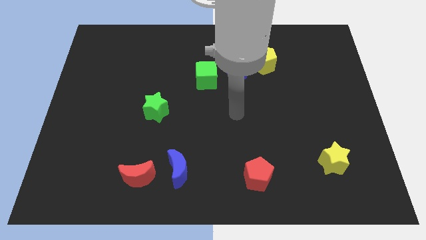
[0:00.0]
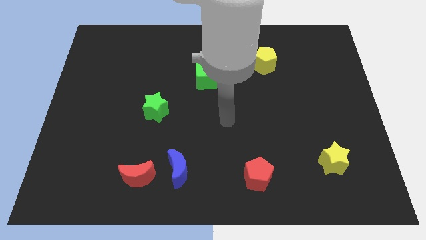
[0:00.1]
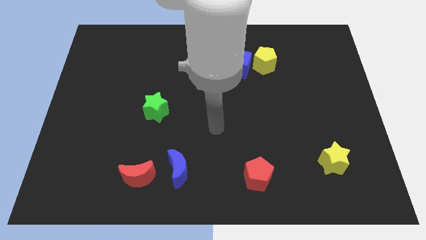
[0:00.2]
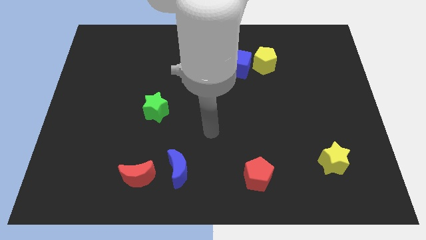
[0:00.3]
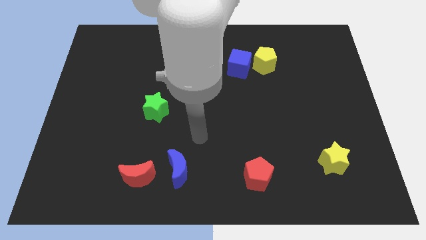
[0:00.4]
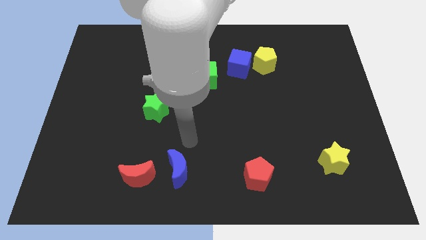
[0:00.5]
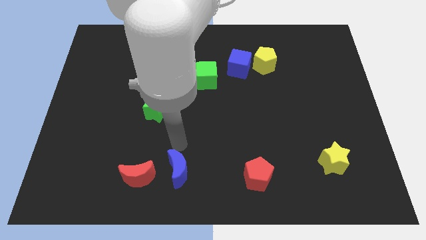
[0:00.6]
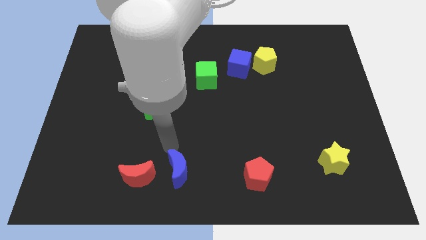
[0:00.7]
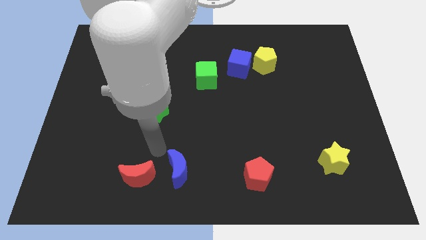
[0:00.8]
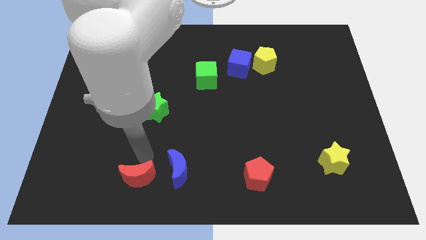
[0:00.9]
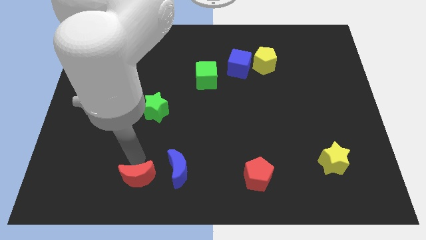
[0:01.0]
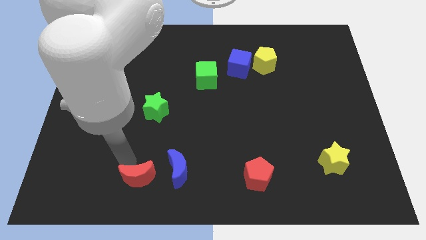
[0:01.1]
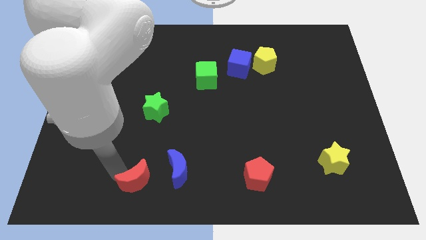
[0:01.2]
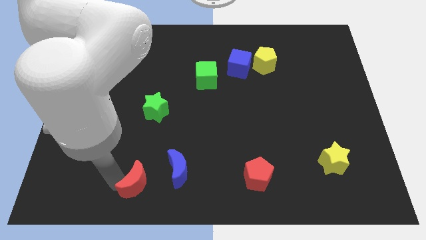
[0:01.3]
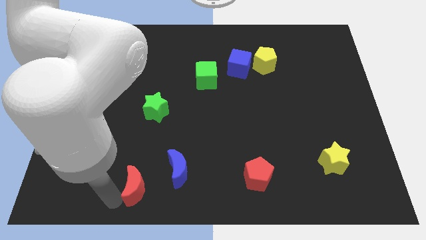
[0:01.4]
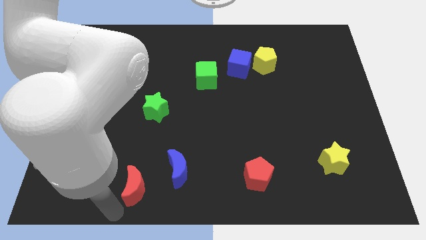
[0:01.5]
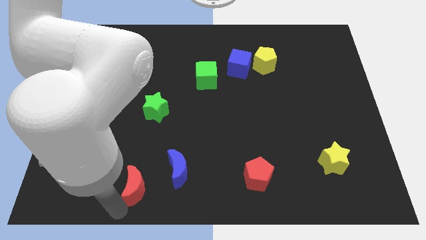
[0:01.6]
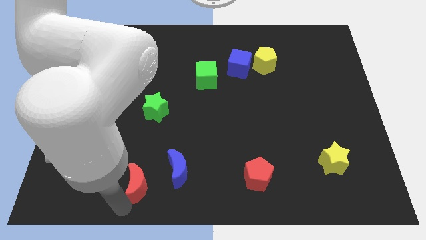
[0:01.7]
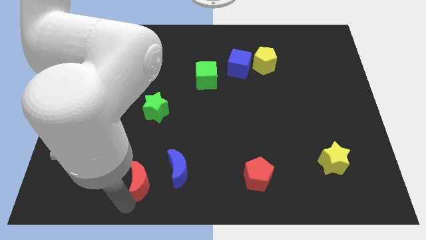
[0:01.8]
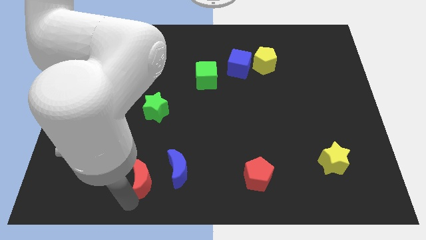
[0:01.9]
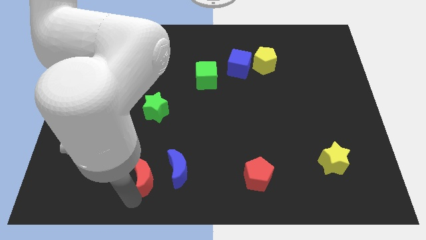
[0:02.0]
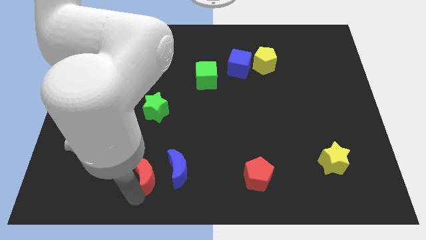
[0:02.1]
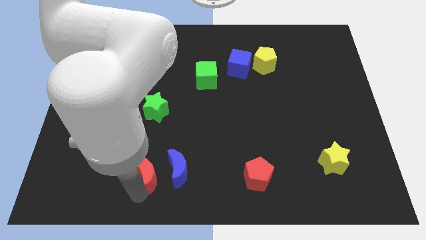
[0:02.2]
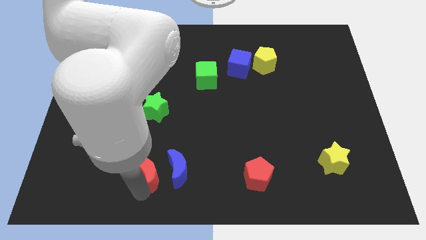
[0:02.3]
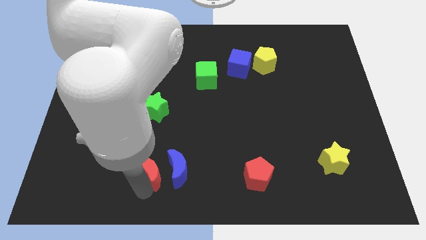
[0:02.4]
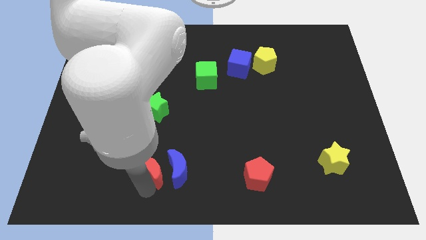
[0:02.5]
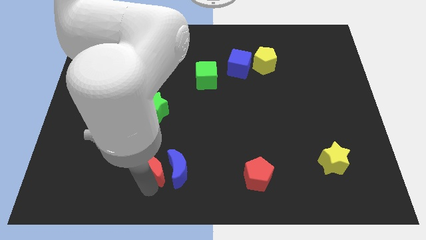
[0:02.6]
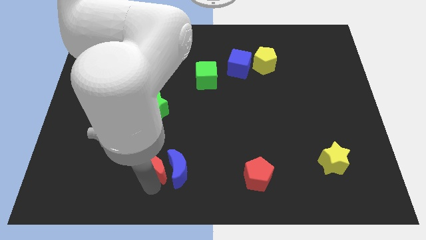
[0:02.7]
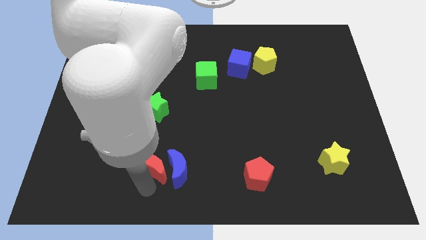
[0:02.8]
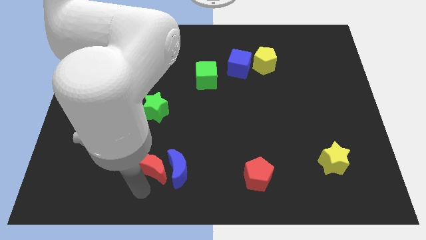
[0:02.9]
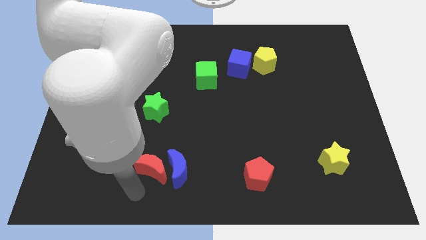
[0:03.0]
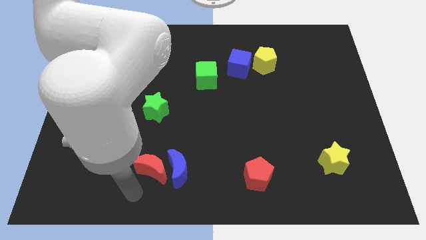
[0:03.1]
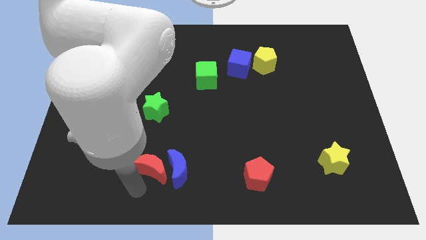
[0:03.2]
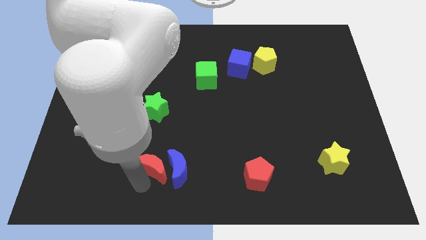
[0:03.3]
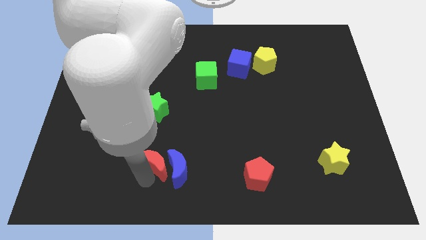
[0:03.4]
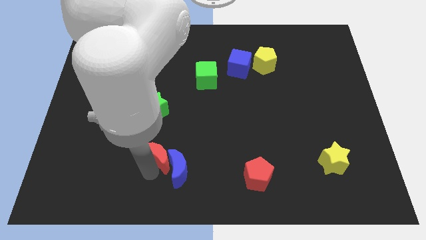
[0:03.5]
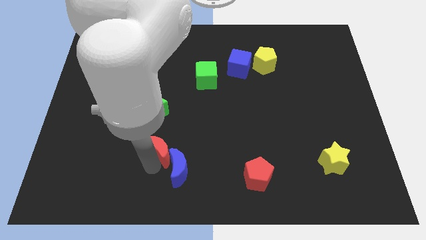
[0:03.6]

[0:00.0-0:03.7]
slightly slide the red moon upwards and to the right diagonally

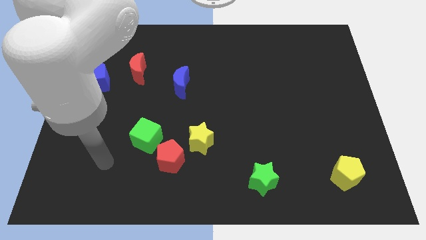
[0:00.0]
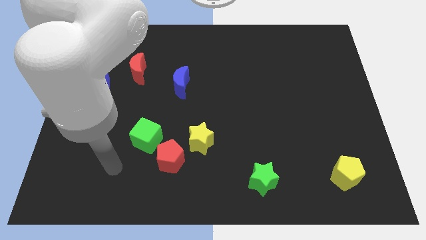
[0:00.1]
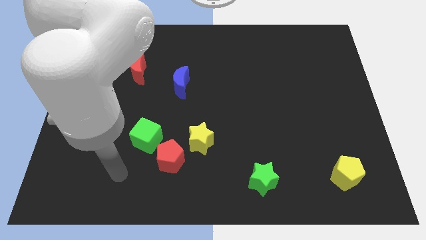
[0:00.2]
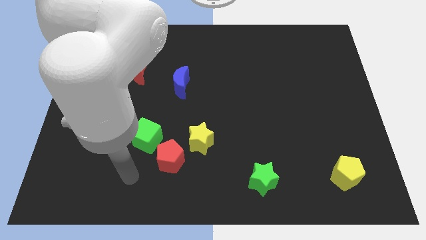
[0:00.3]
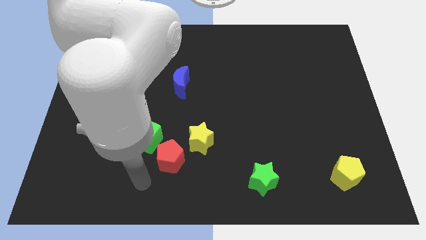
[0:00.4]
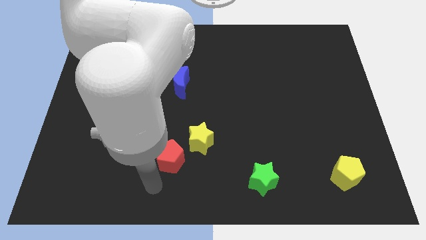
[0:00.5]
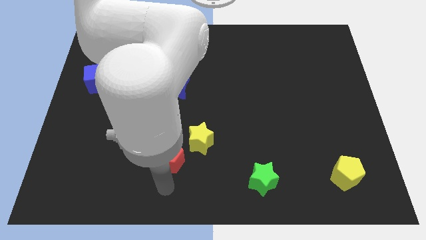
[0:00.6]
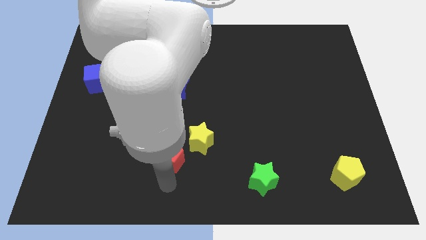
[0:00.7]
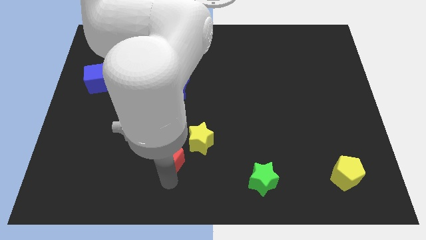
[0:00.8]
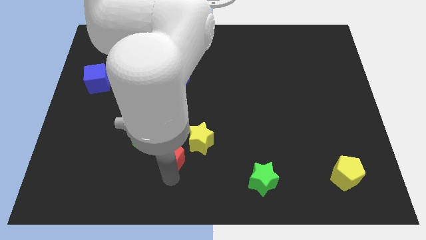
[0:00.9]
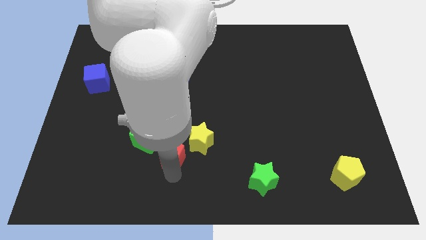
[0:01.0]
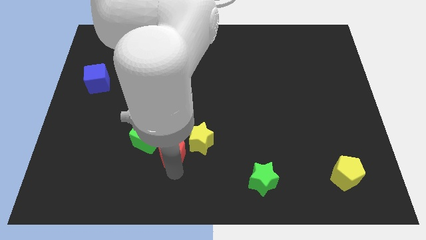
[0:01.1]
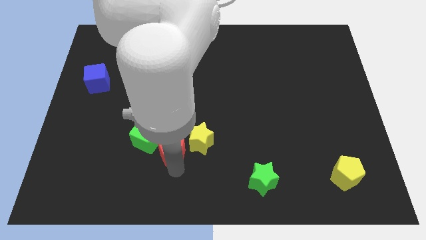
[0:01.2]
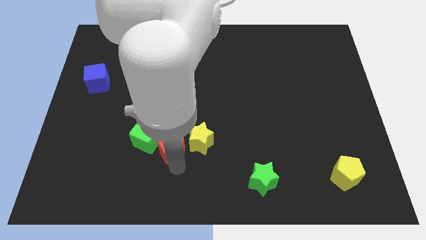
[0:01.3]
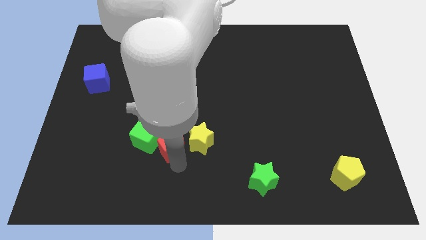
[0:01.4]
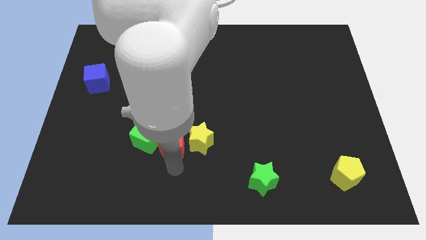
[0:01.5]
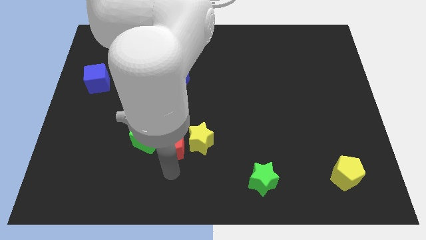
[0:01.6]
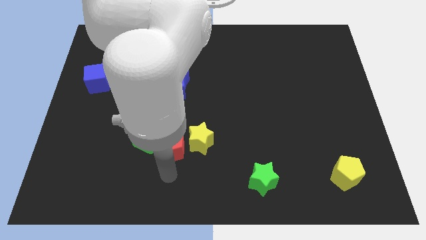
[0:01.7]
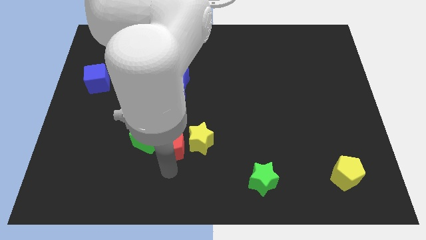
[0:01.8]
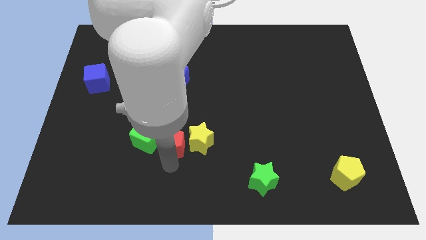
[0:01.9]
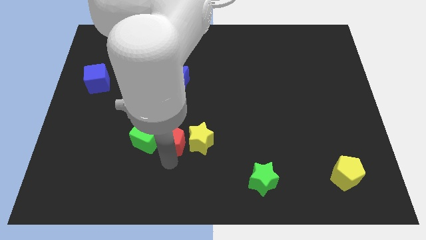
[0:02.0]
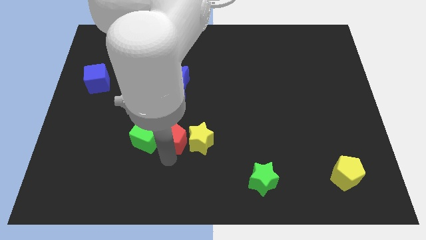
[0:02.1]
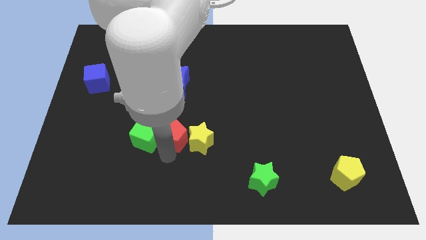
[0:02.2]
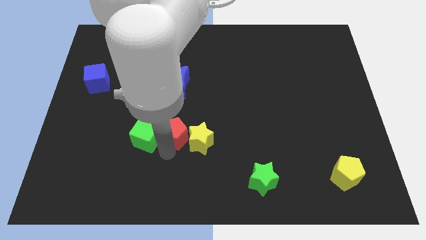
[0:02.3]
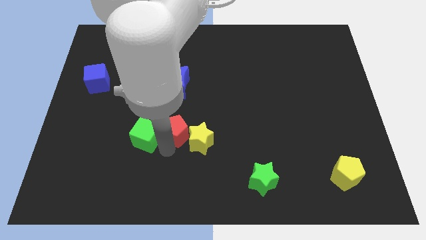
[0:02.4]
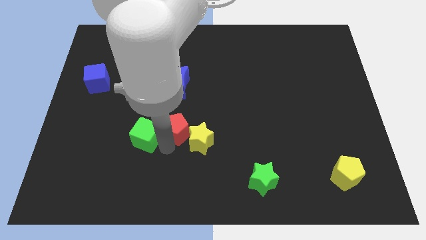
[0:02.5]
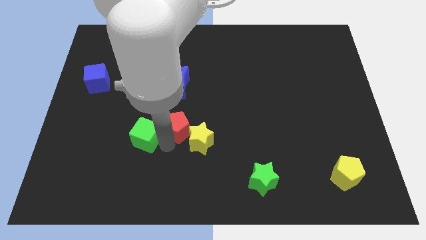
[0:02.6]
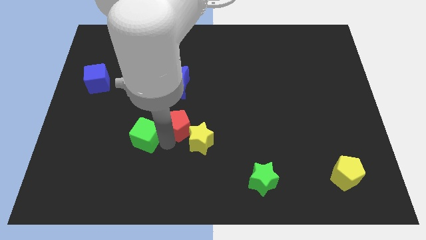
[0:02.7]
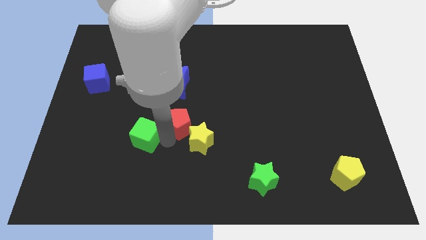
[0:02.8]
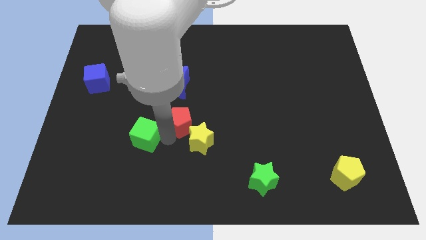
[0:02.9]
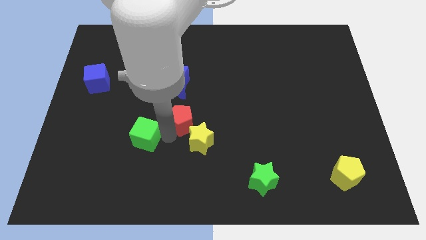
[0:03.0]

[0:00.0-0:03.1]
move the red pentagon upwards and then to the right a little bit

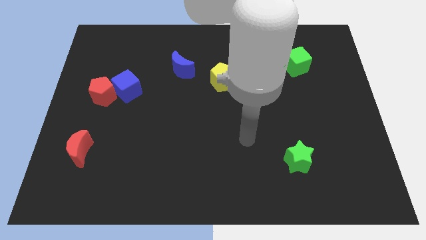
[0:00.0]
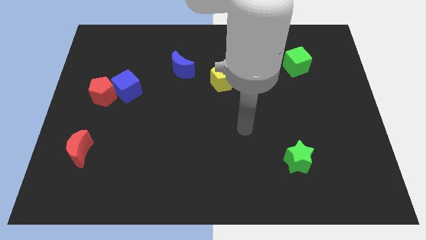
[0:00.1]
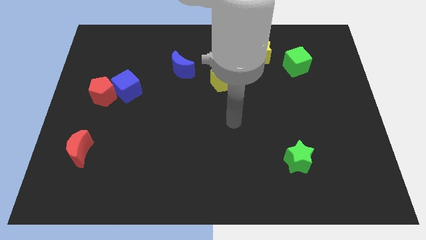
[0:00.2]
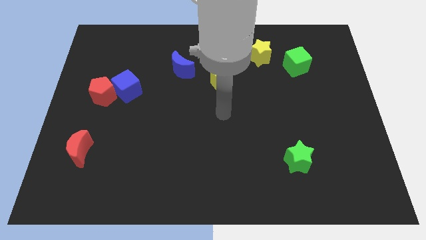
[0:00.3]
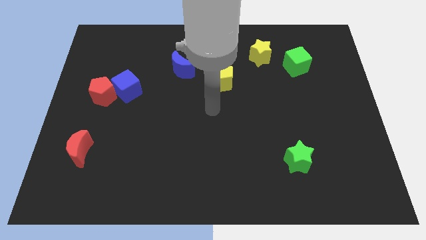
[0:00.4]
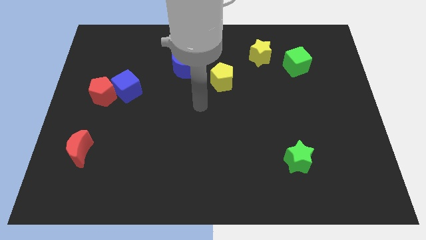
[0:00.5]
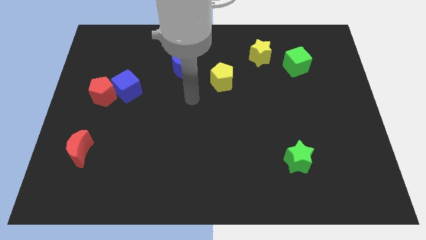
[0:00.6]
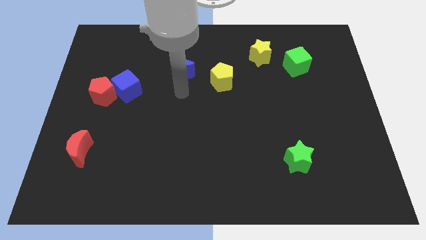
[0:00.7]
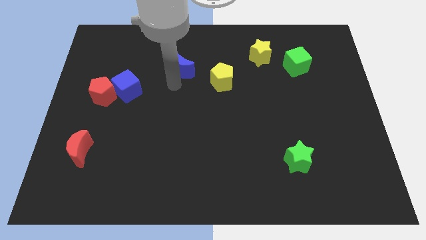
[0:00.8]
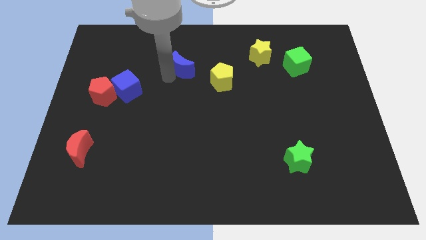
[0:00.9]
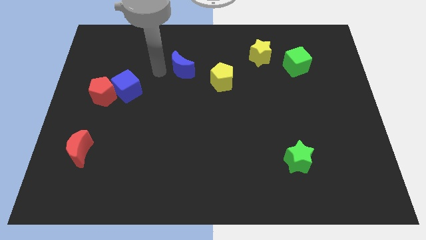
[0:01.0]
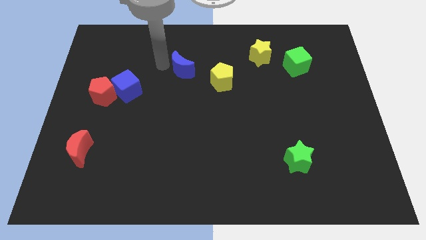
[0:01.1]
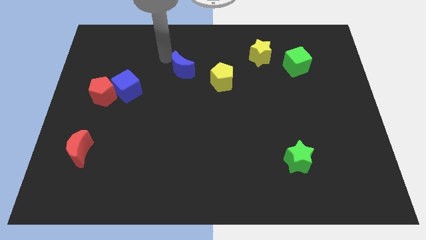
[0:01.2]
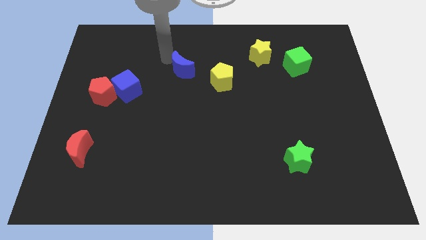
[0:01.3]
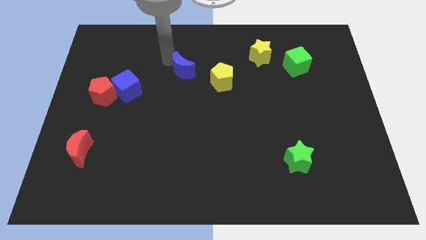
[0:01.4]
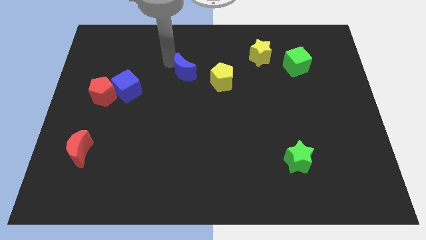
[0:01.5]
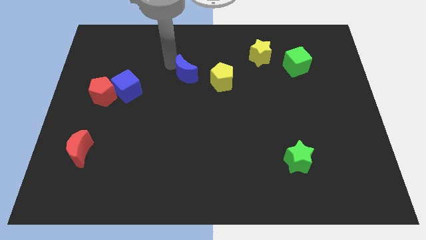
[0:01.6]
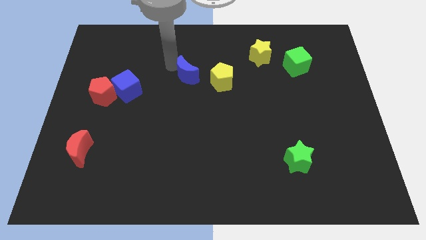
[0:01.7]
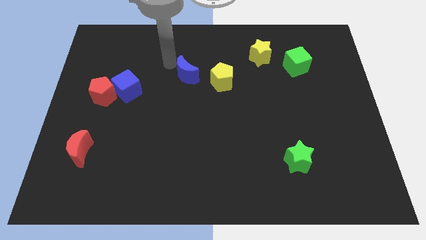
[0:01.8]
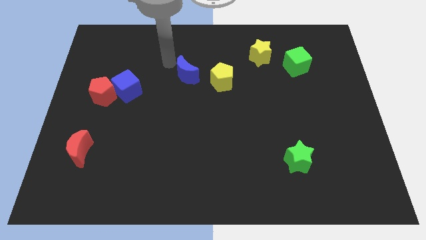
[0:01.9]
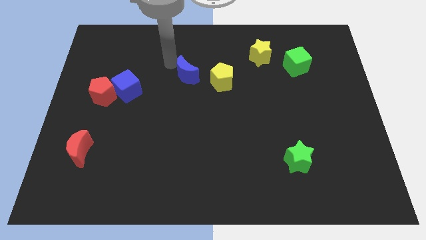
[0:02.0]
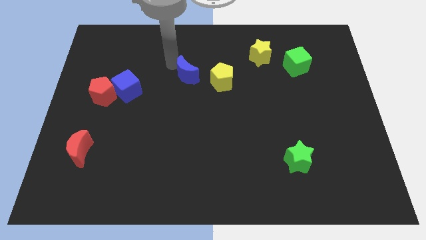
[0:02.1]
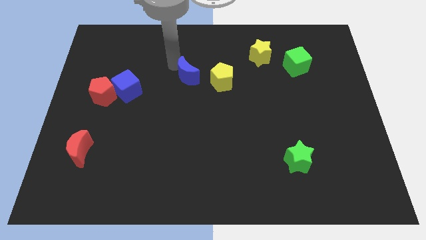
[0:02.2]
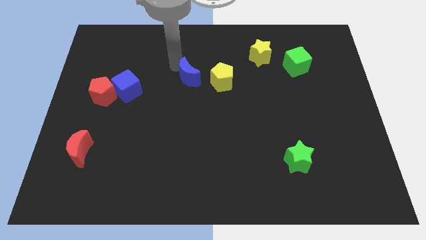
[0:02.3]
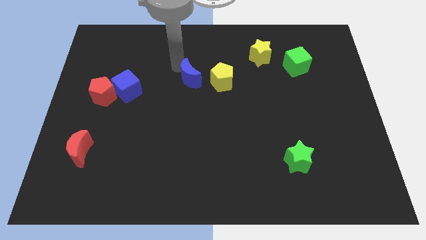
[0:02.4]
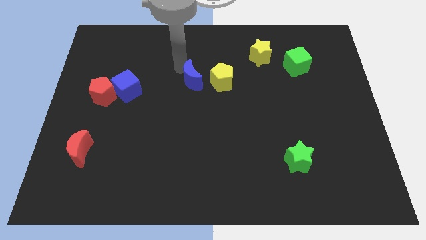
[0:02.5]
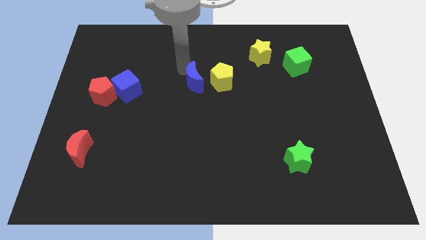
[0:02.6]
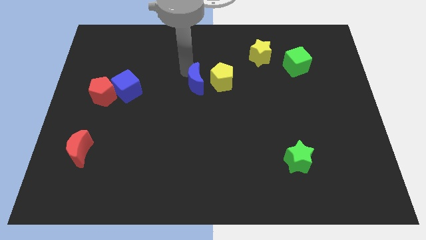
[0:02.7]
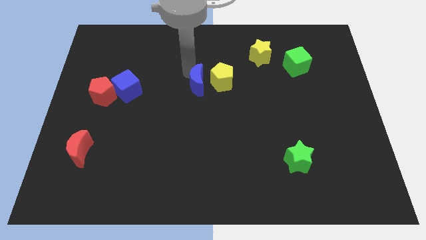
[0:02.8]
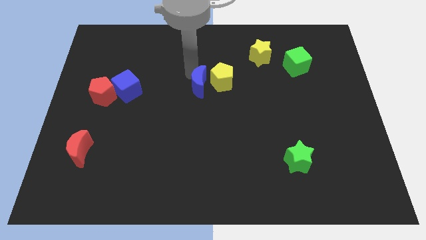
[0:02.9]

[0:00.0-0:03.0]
slide the blue moon diagonally downwards and right somewhat
